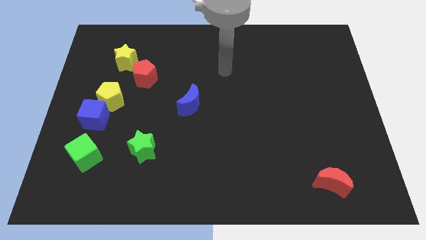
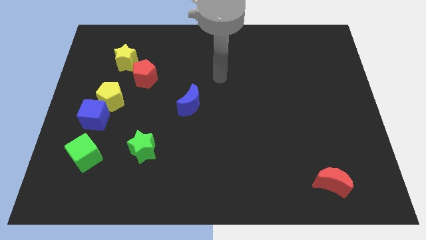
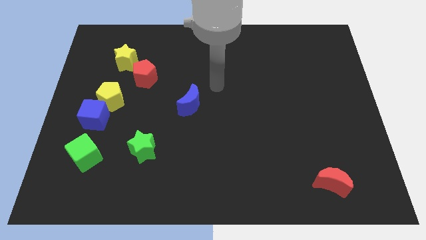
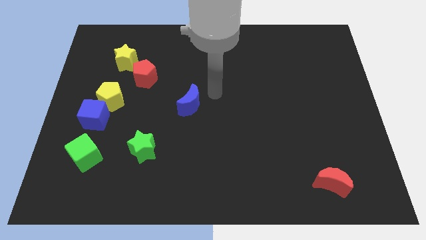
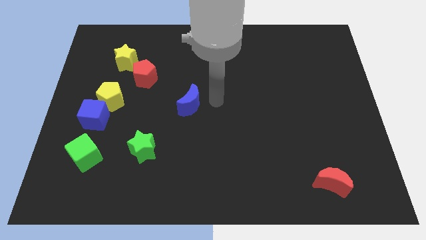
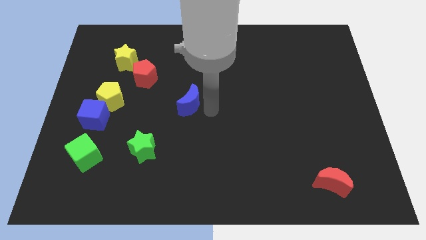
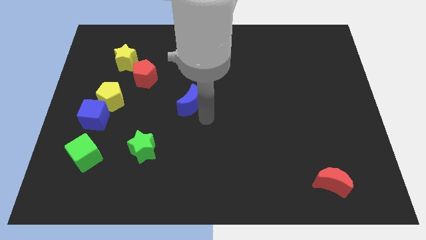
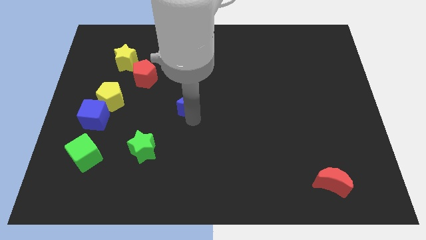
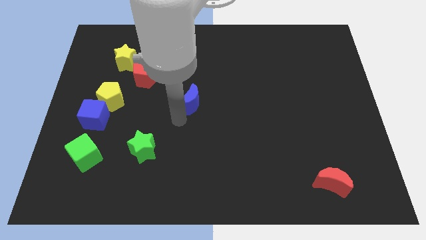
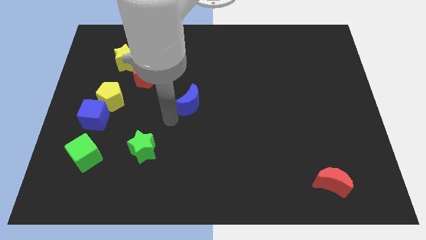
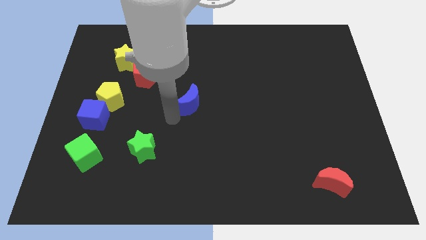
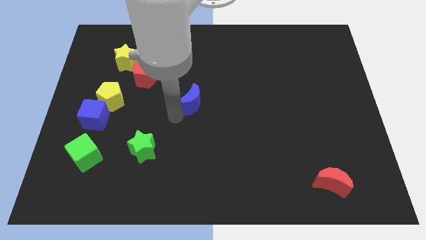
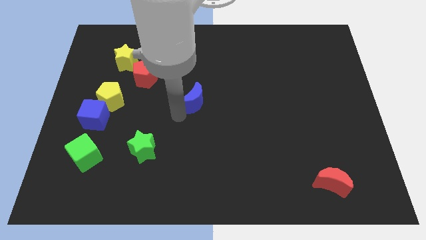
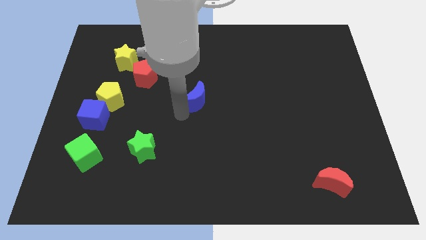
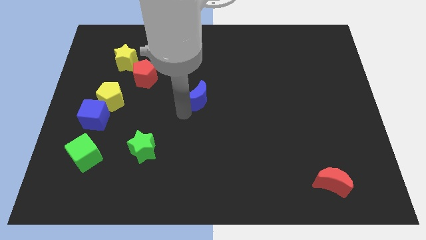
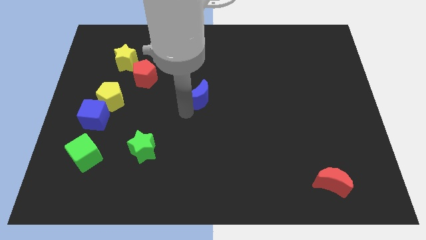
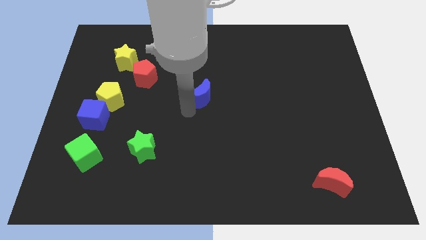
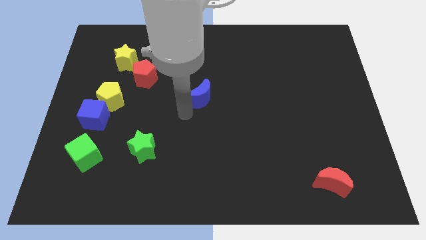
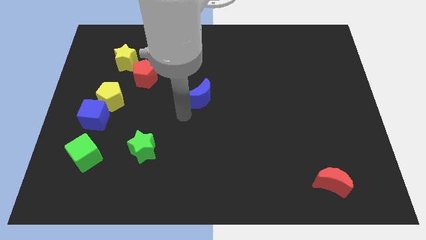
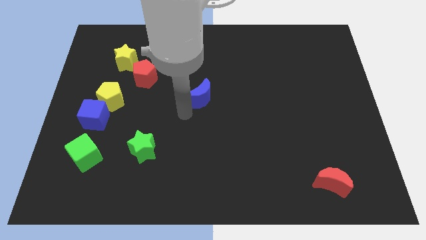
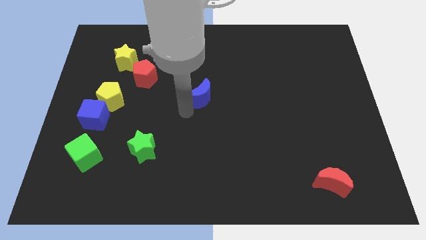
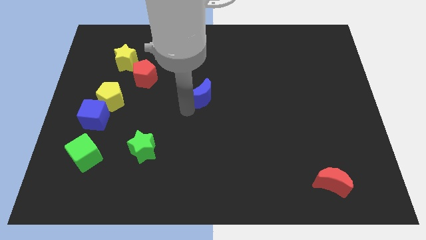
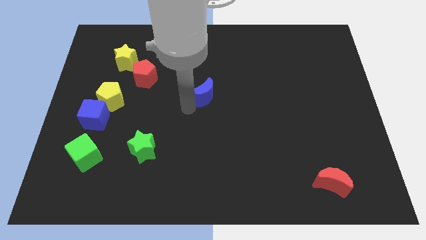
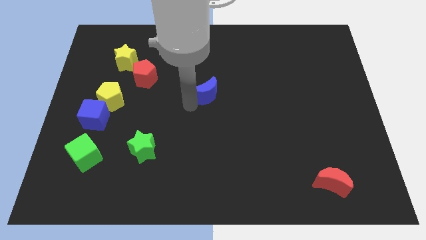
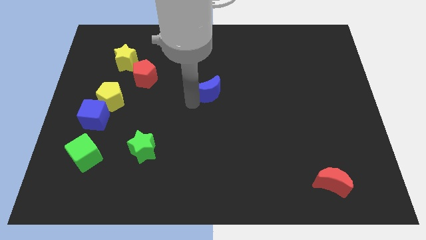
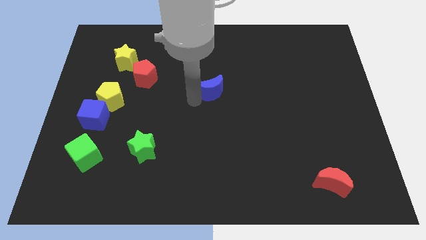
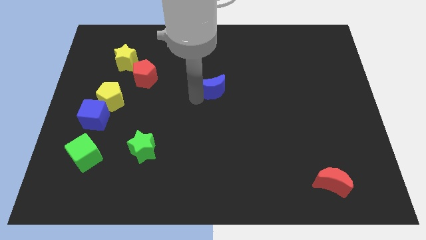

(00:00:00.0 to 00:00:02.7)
push the blue moon a little bit upwards and to the right diagonally

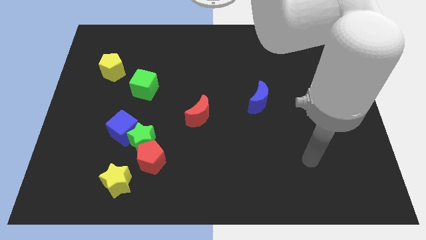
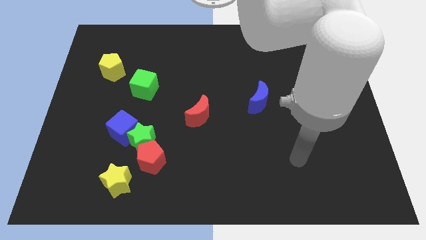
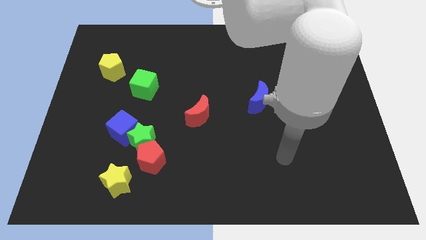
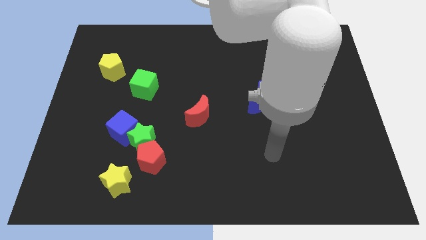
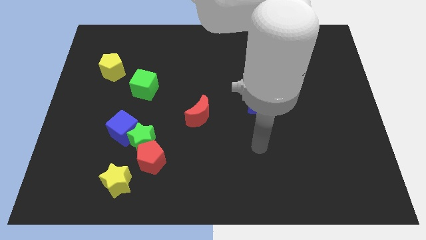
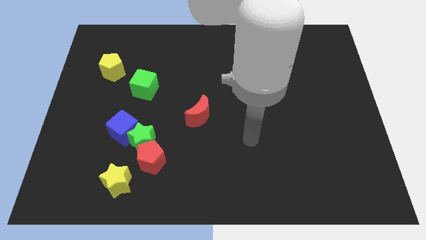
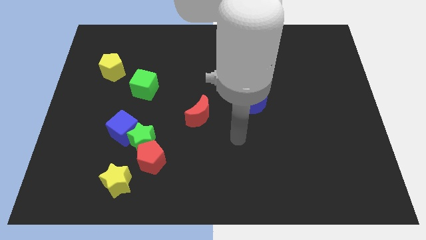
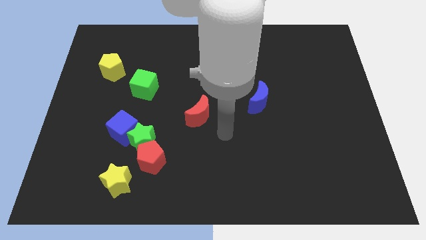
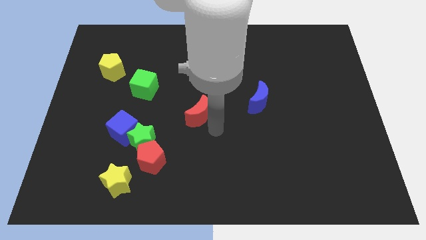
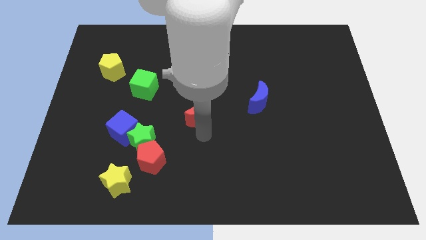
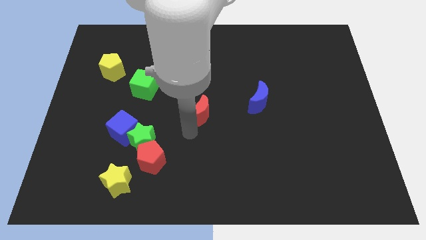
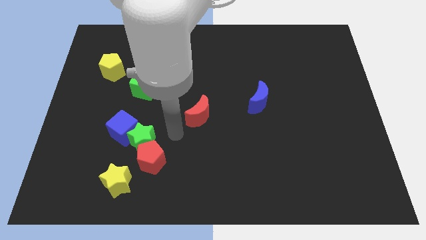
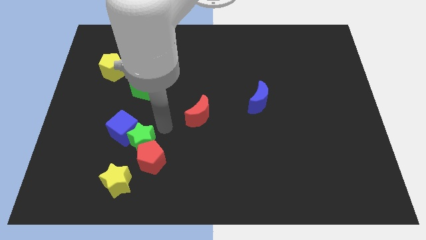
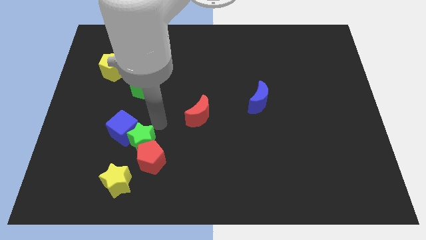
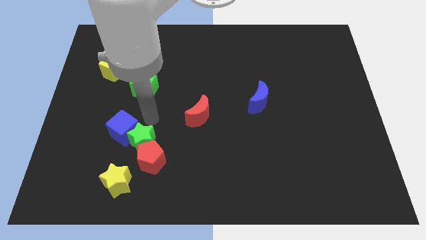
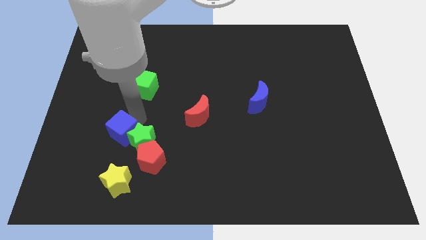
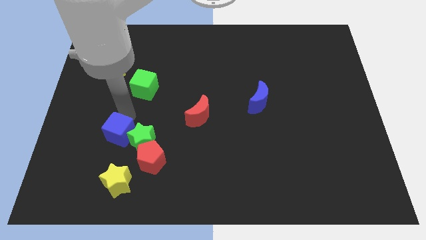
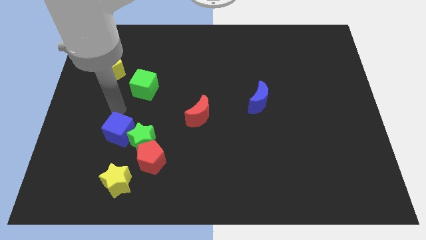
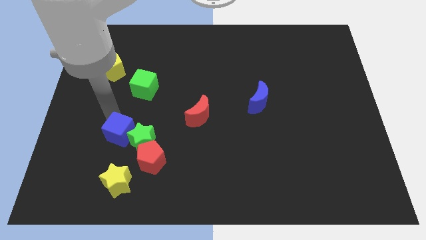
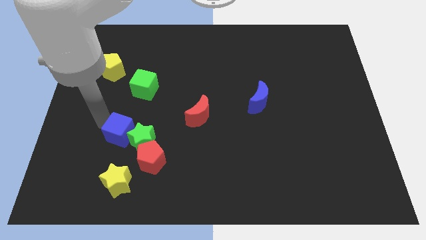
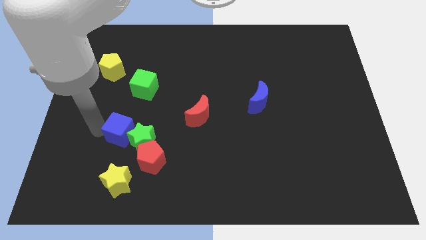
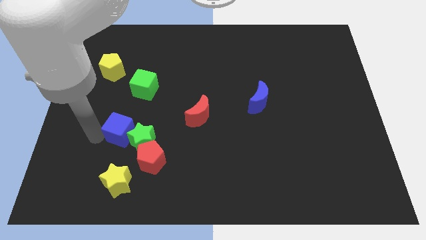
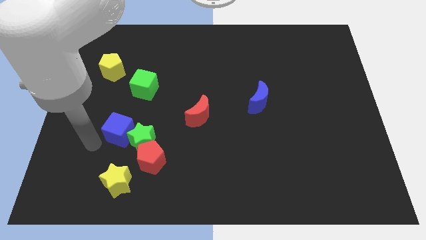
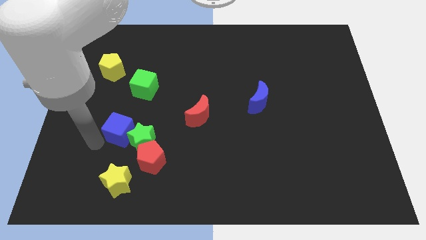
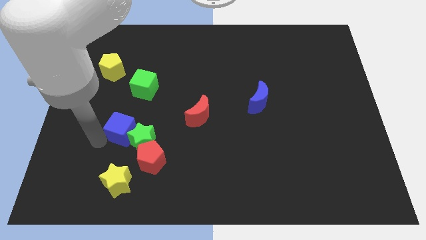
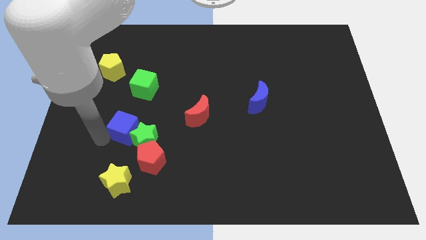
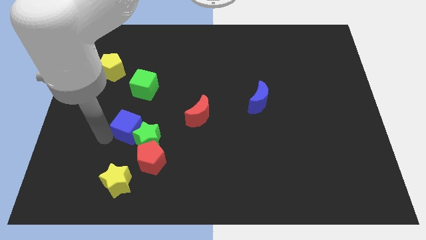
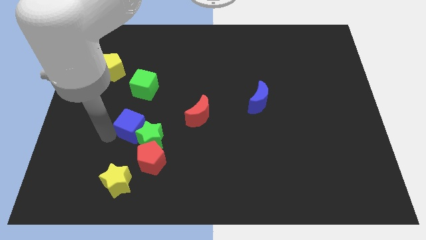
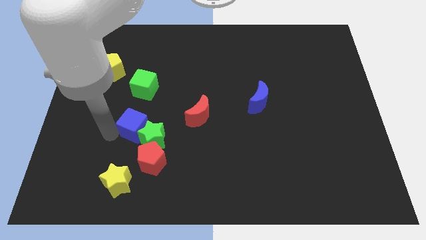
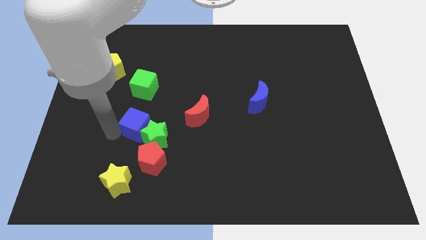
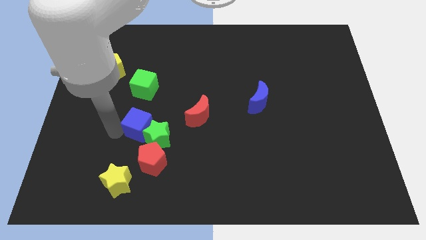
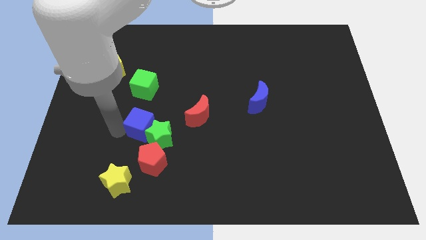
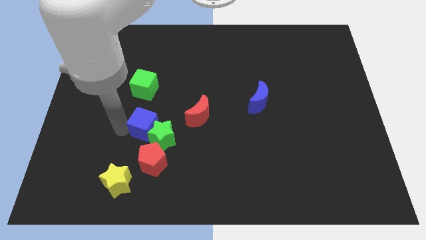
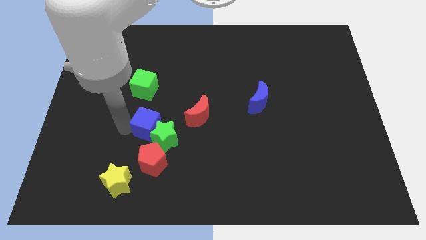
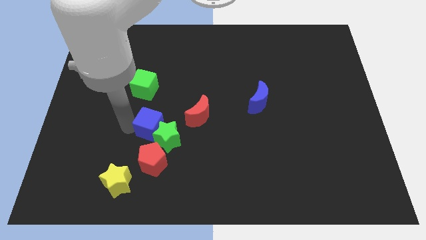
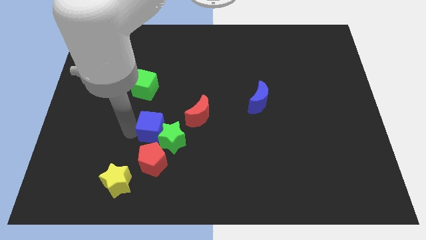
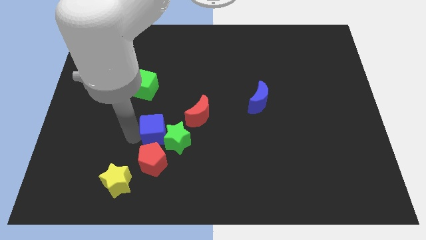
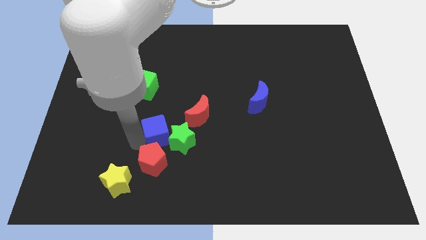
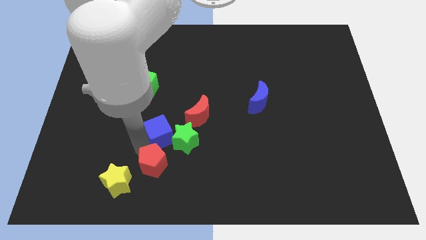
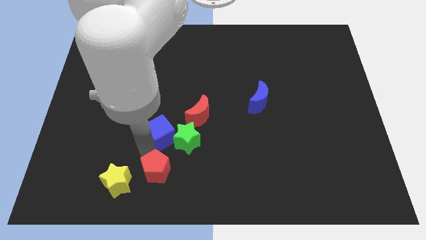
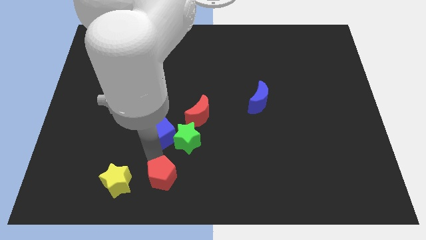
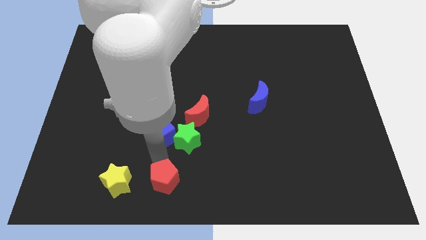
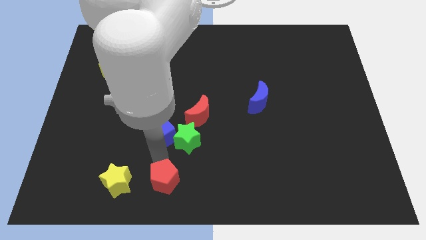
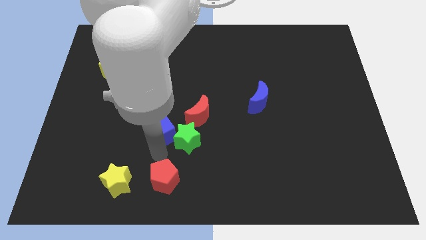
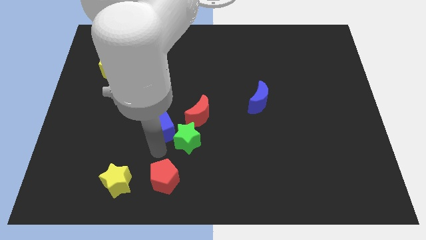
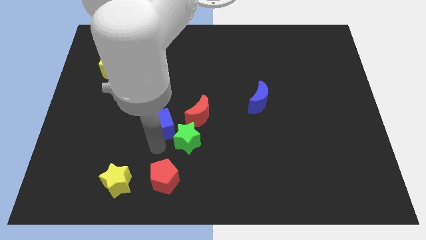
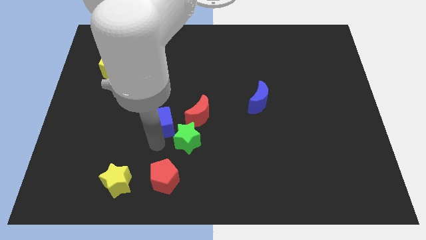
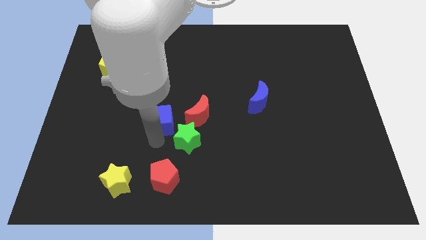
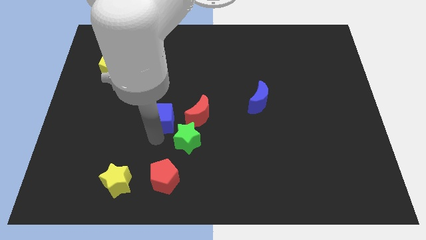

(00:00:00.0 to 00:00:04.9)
slide the blue cube a little bit upwards and then right

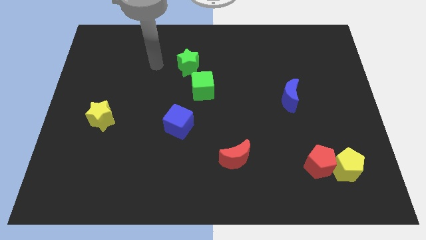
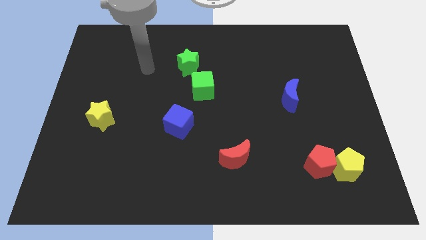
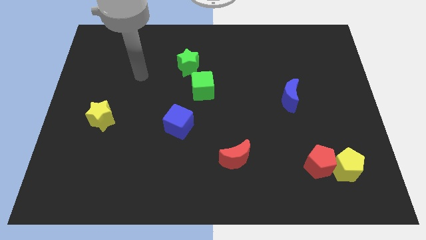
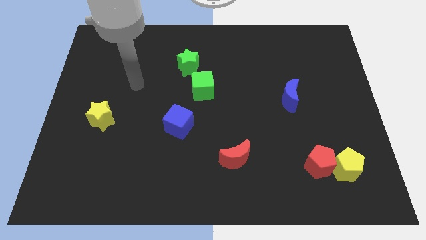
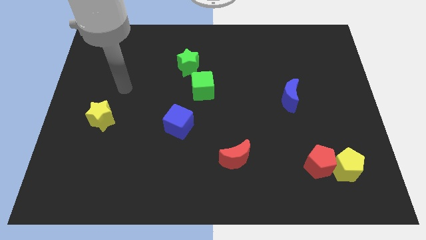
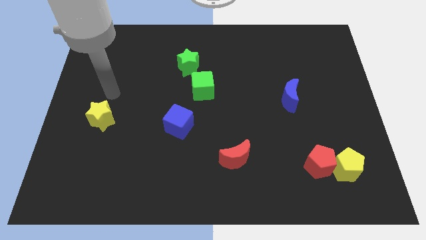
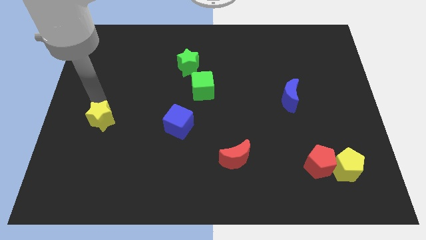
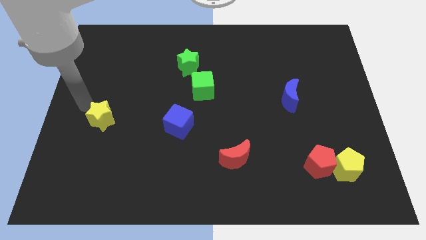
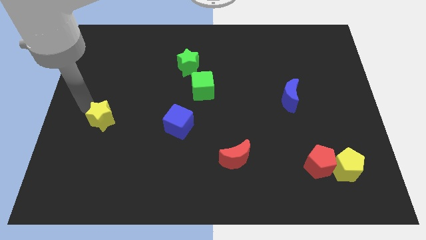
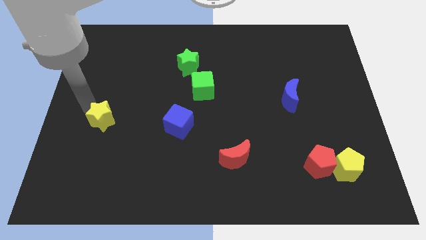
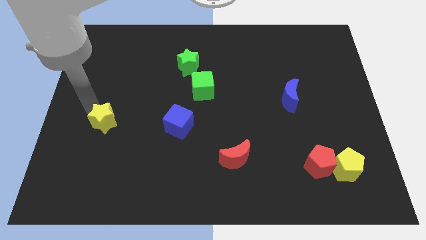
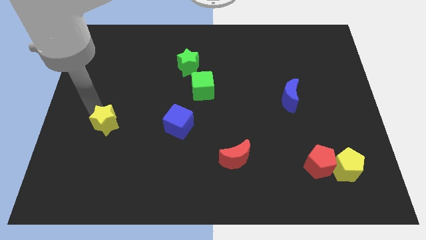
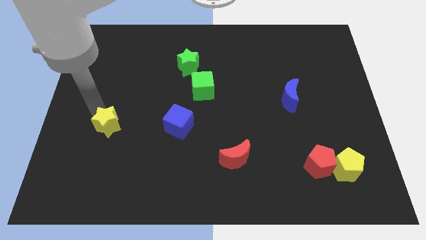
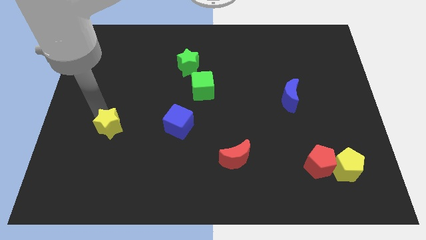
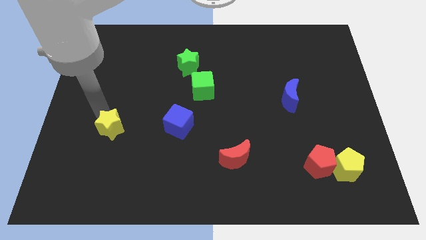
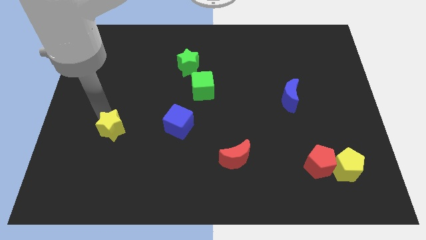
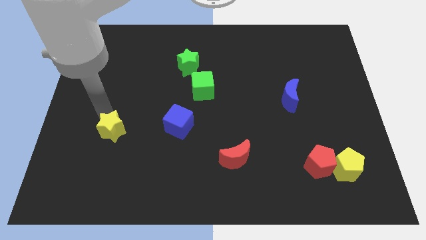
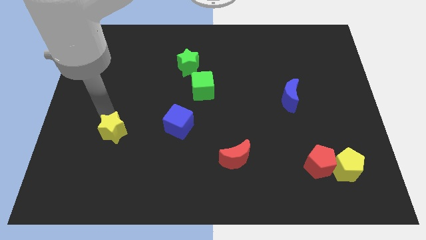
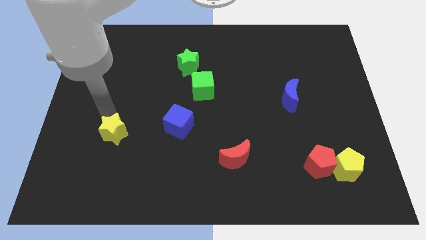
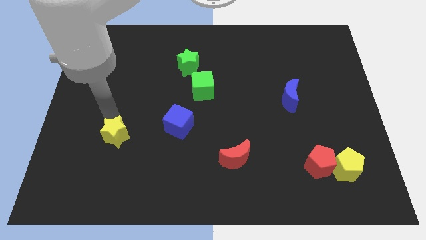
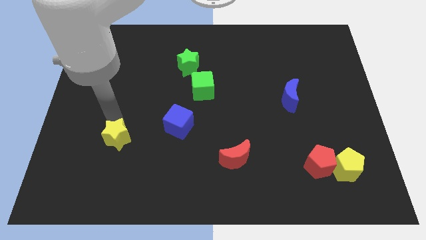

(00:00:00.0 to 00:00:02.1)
move the yellow star a bit down and right
